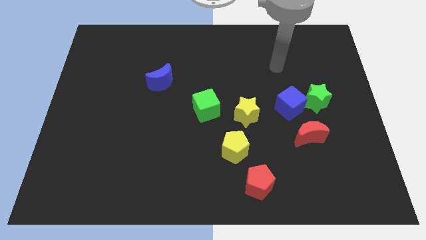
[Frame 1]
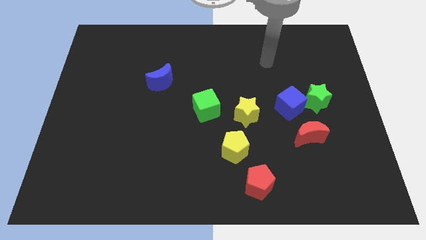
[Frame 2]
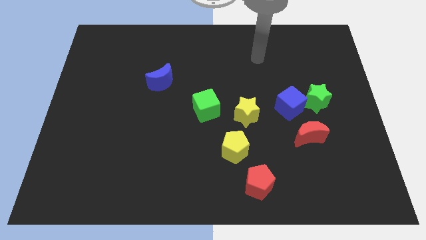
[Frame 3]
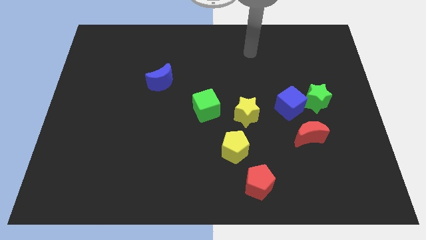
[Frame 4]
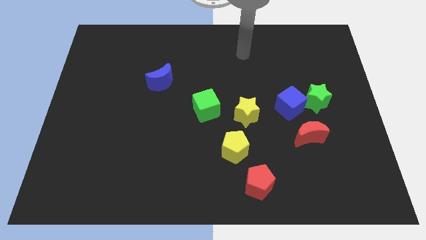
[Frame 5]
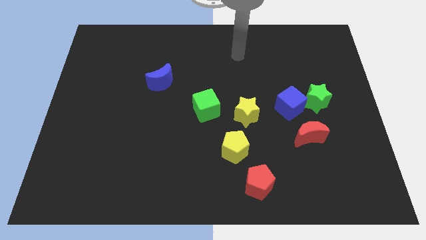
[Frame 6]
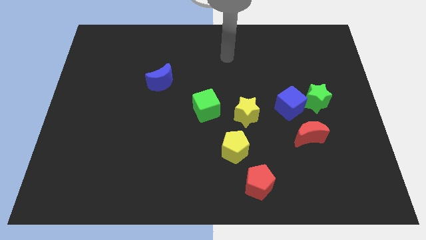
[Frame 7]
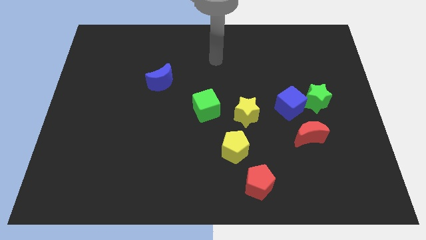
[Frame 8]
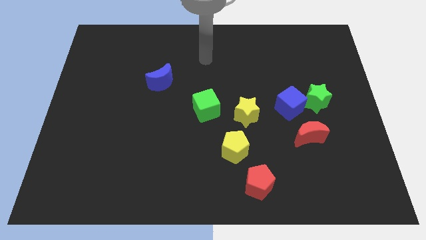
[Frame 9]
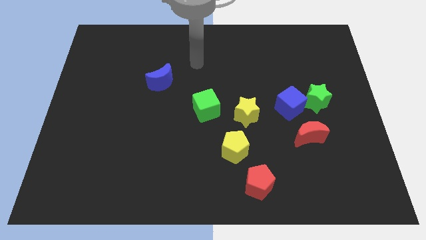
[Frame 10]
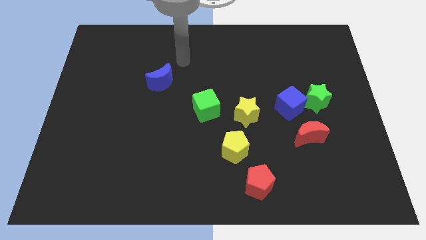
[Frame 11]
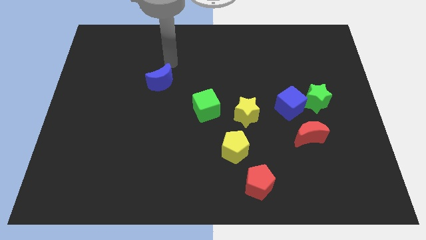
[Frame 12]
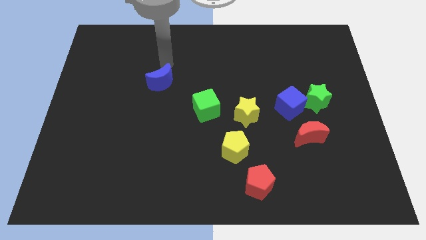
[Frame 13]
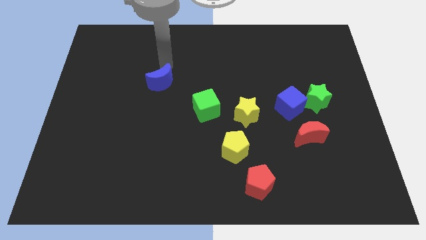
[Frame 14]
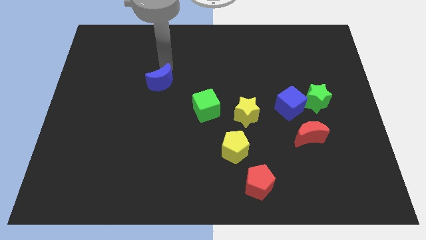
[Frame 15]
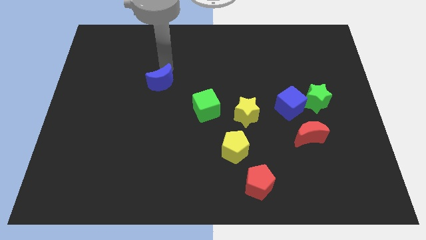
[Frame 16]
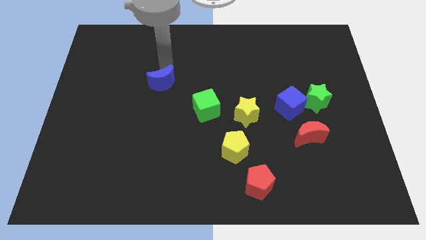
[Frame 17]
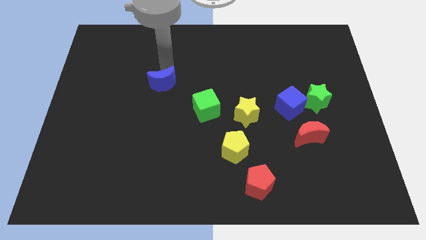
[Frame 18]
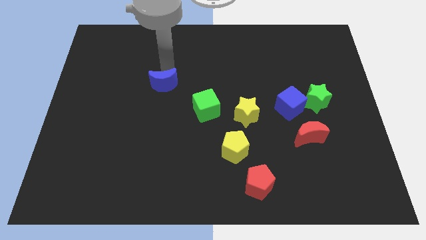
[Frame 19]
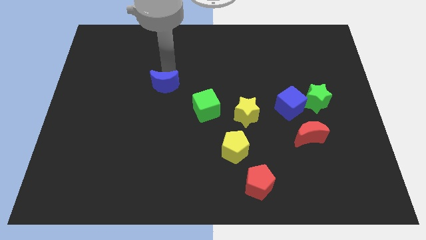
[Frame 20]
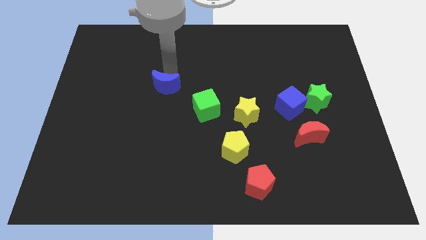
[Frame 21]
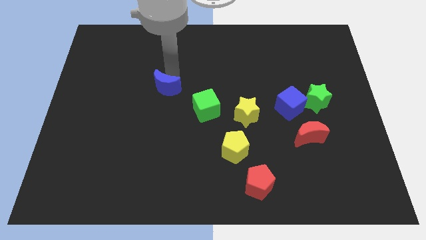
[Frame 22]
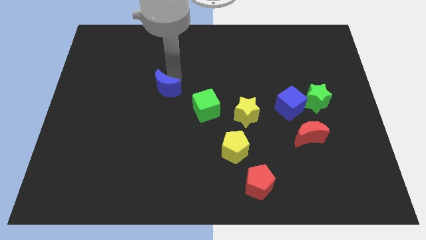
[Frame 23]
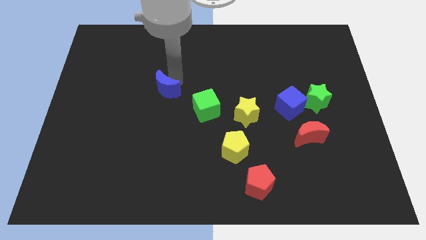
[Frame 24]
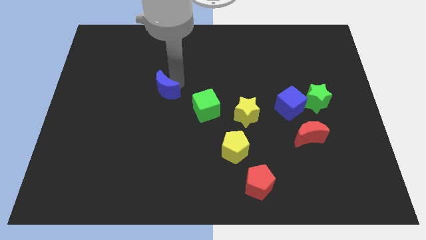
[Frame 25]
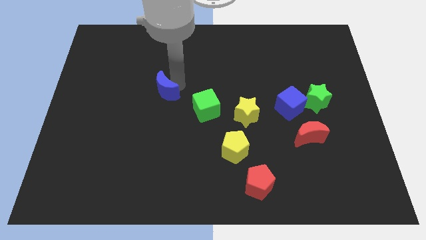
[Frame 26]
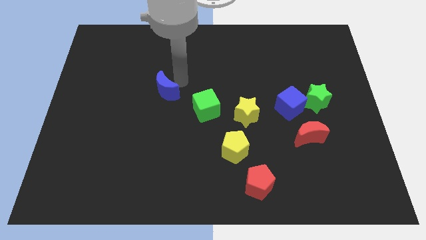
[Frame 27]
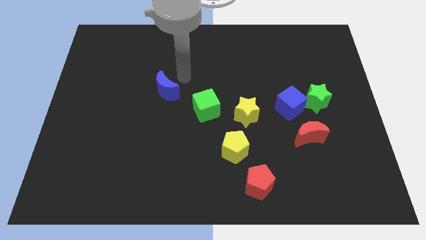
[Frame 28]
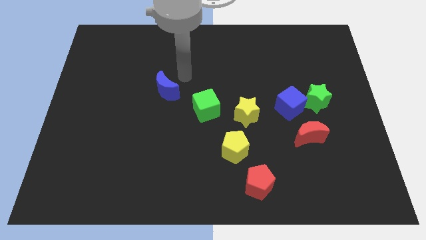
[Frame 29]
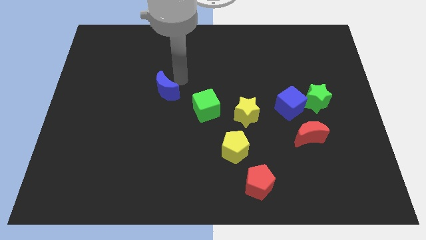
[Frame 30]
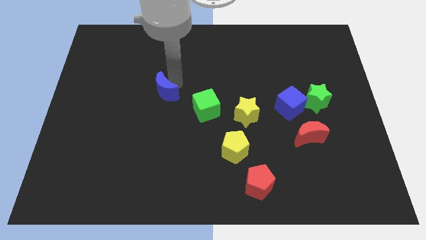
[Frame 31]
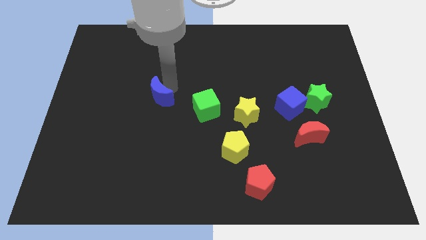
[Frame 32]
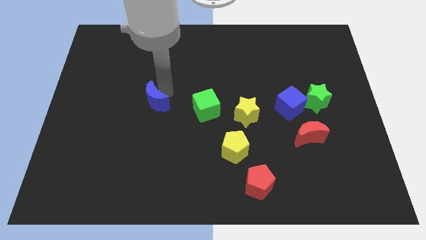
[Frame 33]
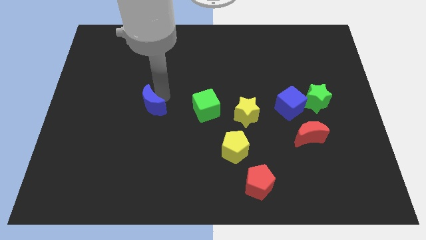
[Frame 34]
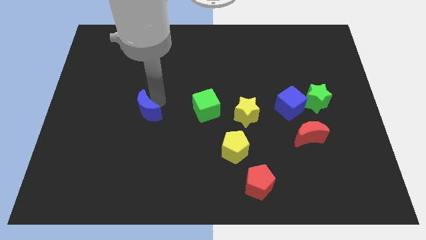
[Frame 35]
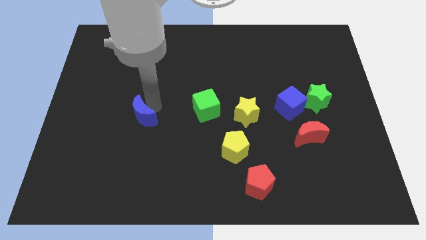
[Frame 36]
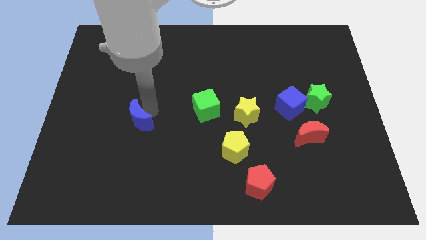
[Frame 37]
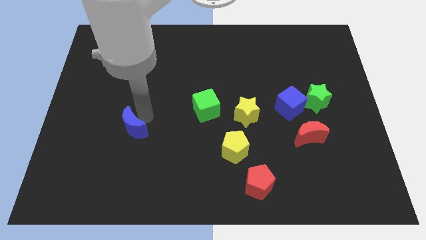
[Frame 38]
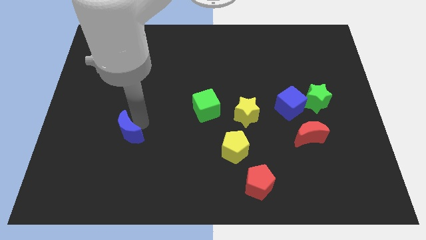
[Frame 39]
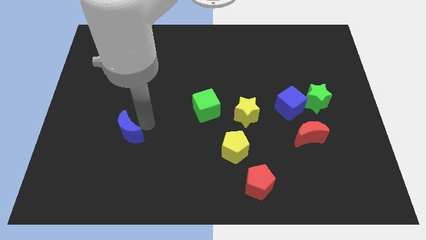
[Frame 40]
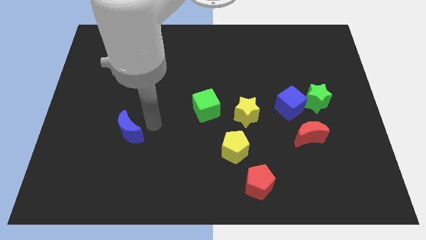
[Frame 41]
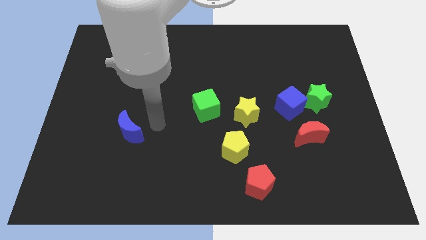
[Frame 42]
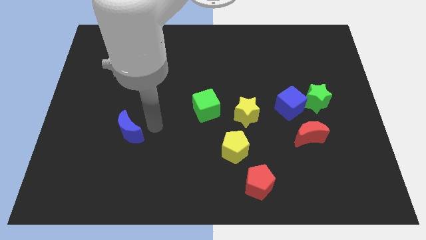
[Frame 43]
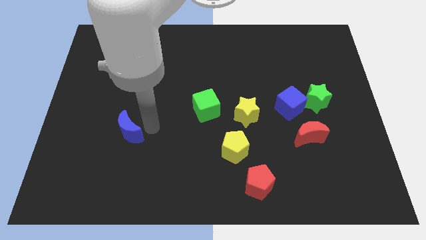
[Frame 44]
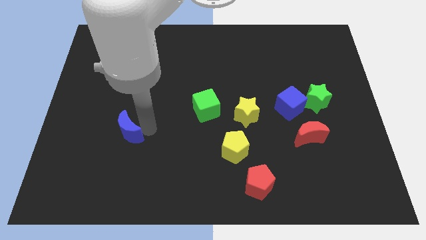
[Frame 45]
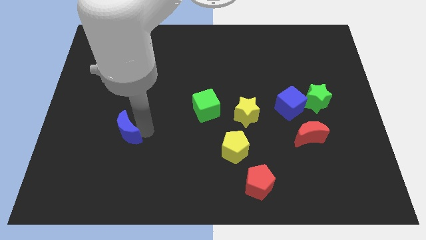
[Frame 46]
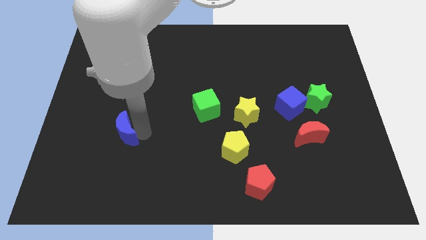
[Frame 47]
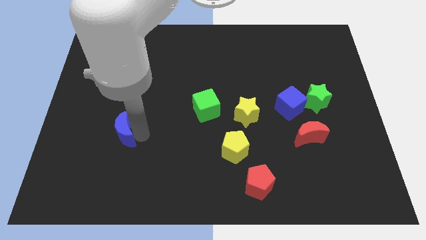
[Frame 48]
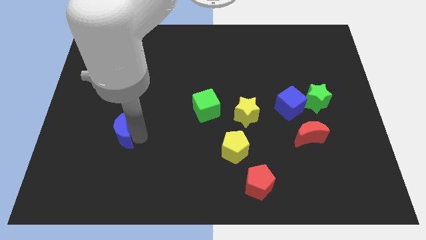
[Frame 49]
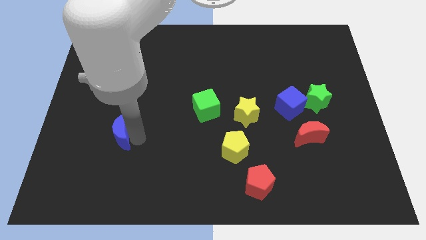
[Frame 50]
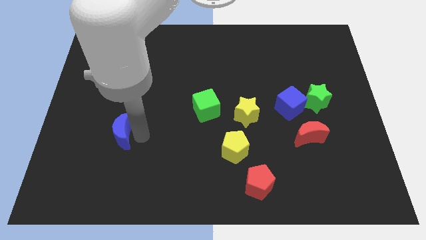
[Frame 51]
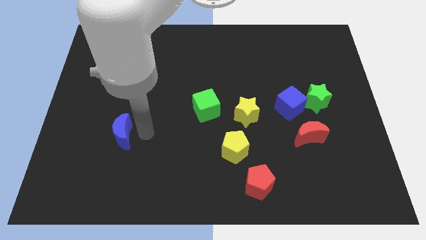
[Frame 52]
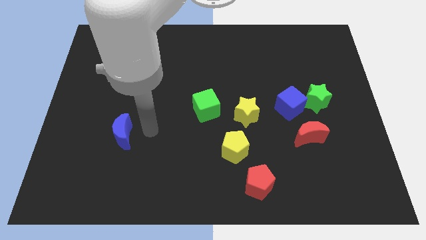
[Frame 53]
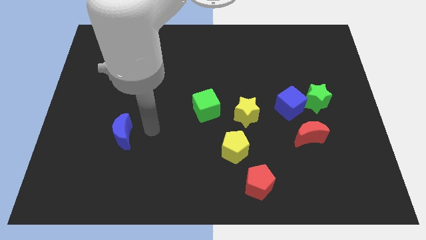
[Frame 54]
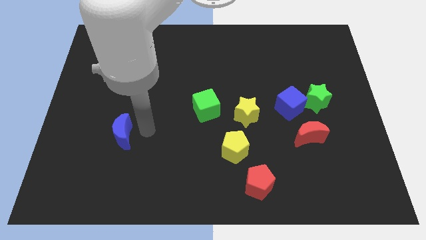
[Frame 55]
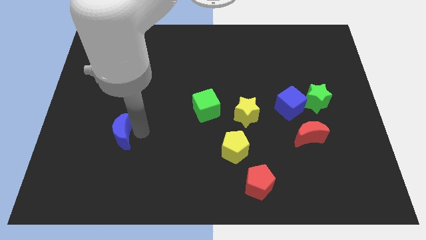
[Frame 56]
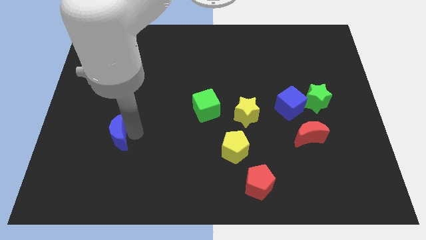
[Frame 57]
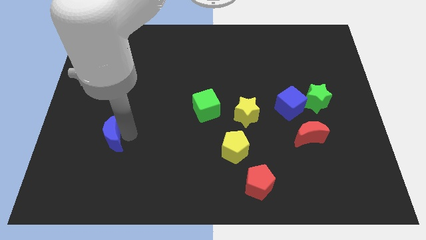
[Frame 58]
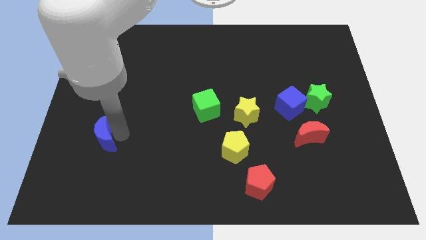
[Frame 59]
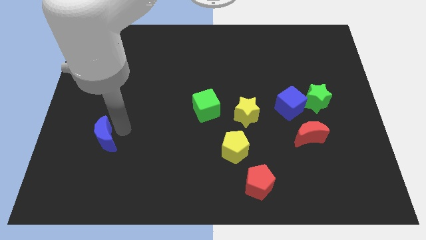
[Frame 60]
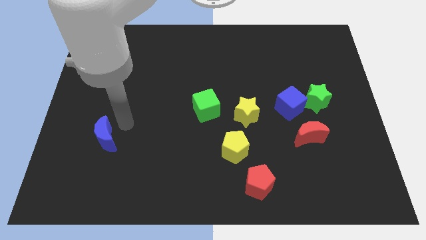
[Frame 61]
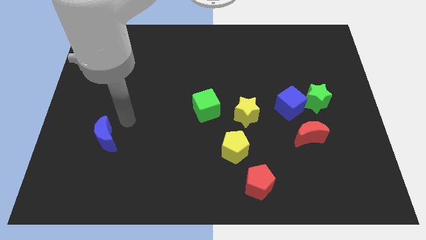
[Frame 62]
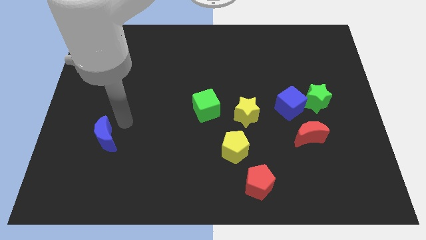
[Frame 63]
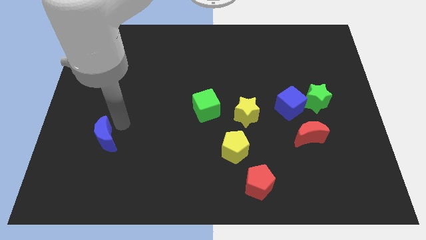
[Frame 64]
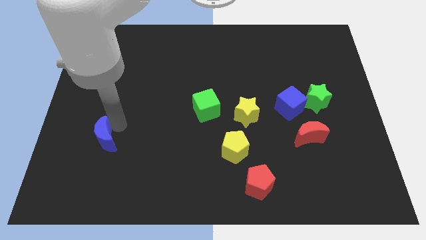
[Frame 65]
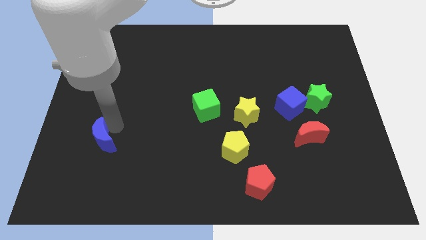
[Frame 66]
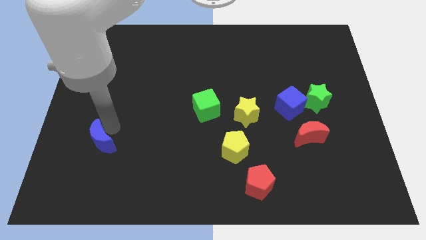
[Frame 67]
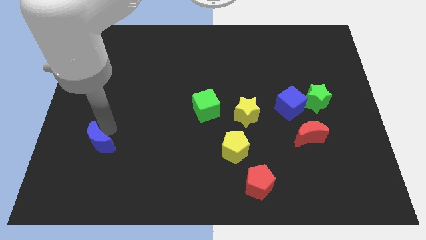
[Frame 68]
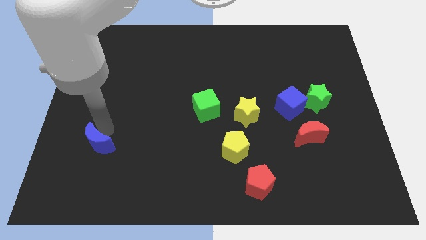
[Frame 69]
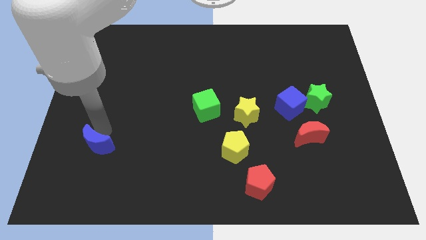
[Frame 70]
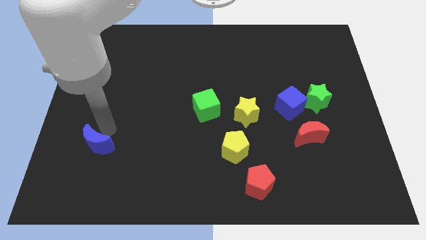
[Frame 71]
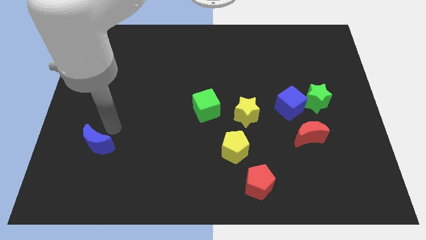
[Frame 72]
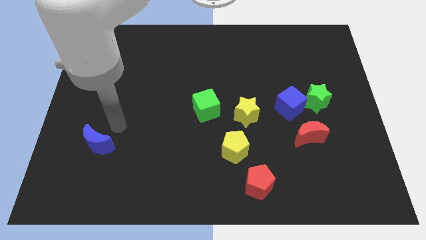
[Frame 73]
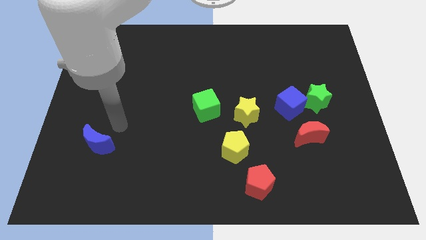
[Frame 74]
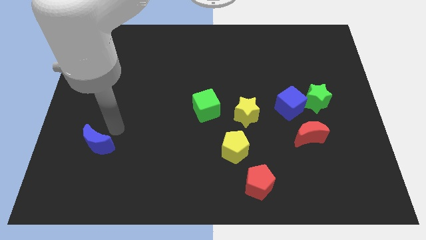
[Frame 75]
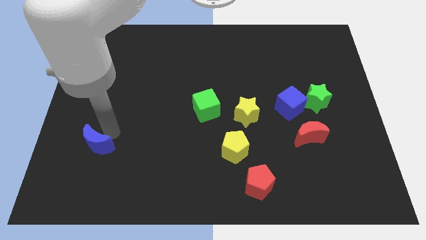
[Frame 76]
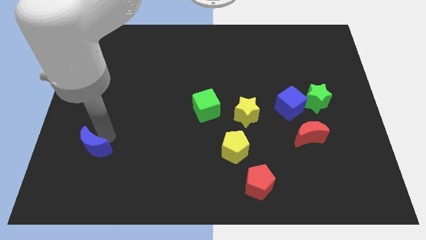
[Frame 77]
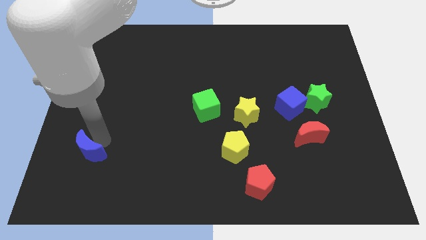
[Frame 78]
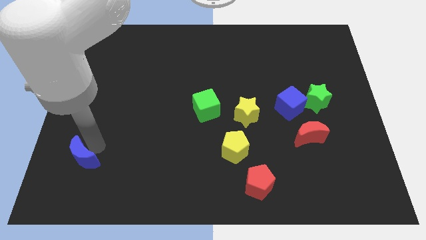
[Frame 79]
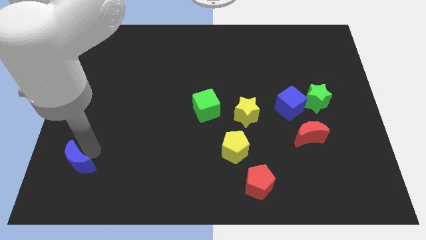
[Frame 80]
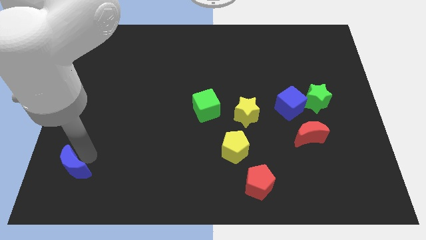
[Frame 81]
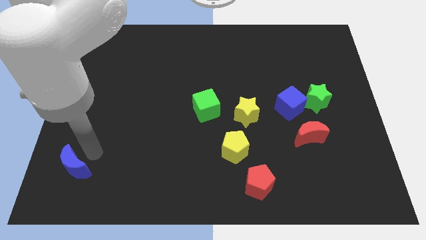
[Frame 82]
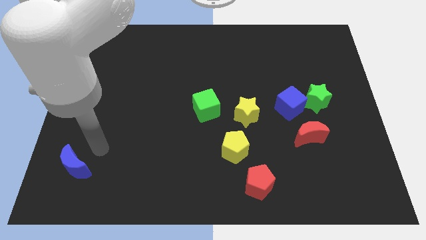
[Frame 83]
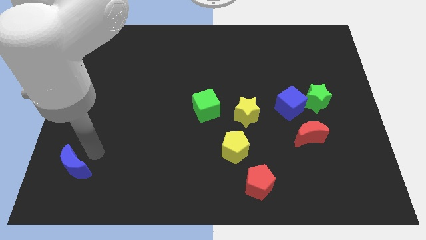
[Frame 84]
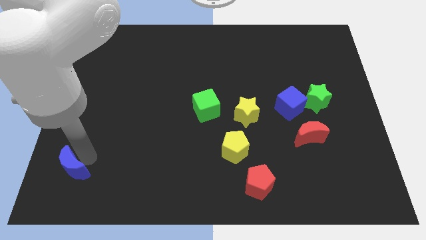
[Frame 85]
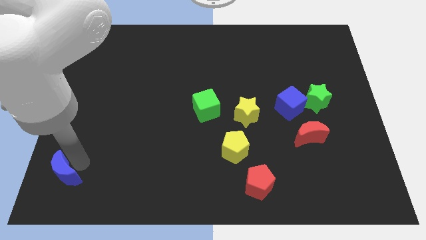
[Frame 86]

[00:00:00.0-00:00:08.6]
move the blue moon to the bottom left corner
